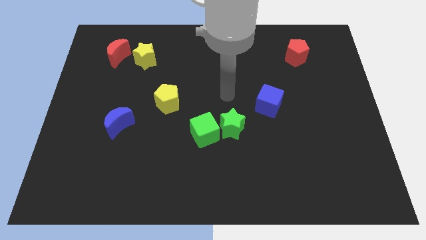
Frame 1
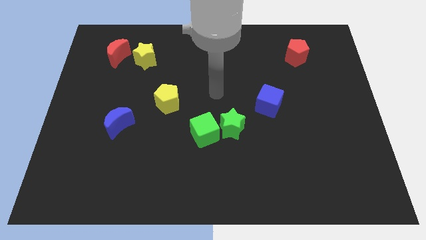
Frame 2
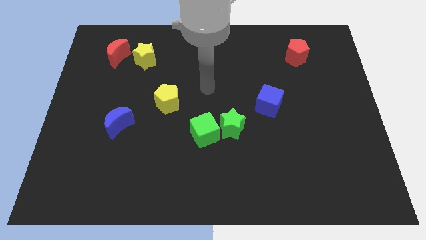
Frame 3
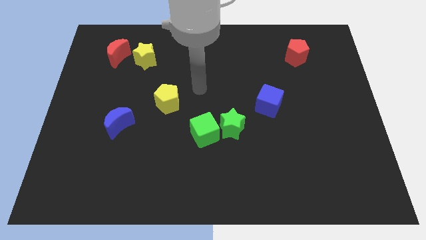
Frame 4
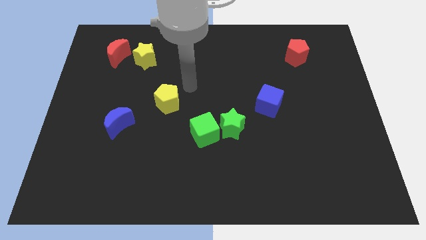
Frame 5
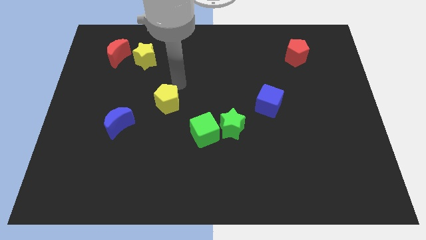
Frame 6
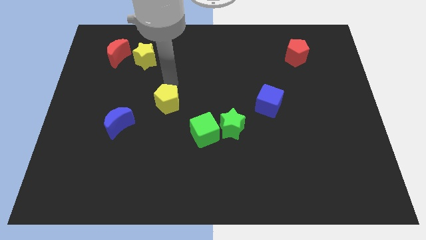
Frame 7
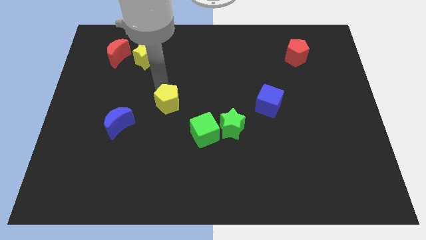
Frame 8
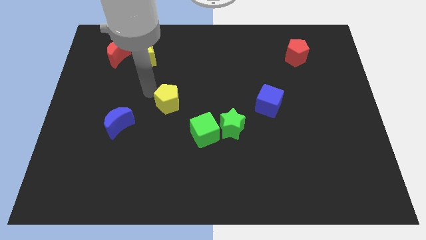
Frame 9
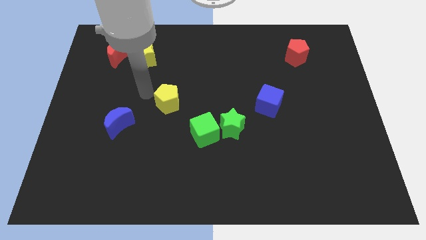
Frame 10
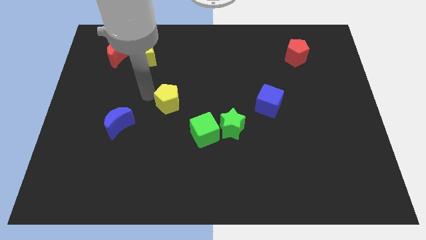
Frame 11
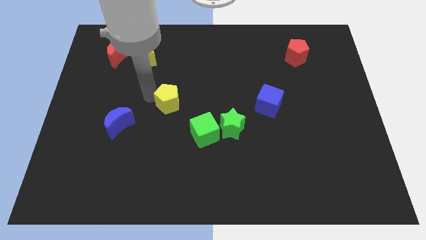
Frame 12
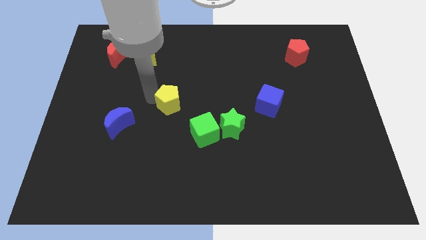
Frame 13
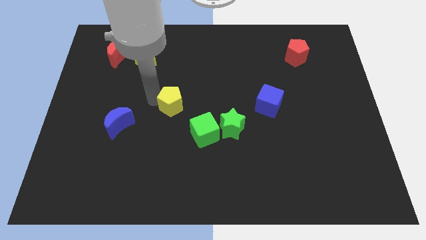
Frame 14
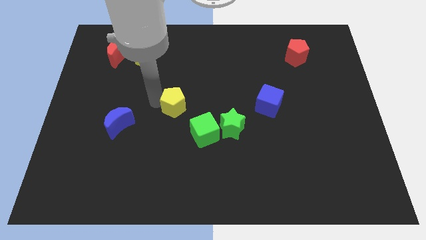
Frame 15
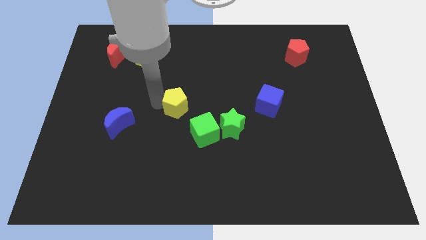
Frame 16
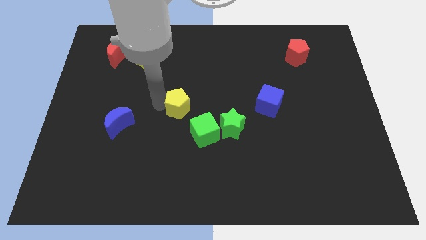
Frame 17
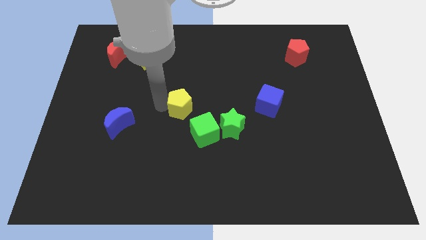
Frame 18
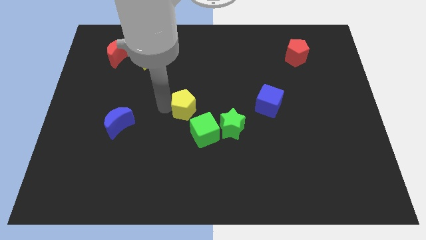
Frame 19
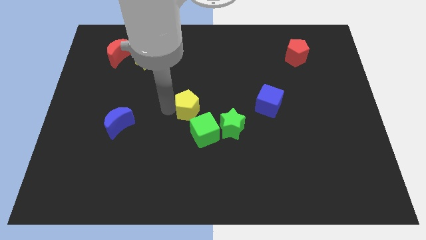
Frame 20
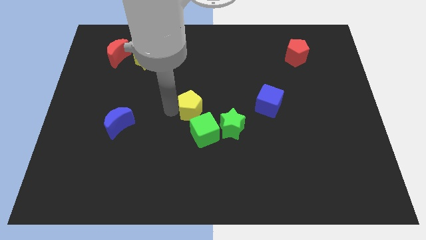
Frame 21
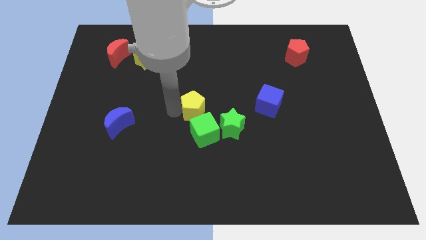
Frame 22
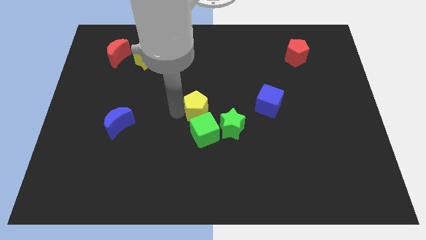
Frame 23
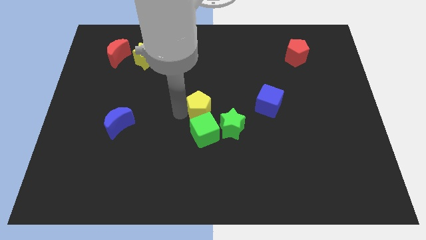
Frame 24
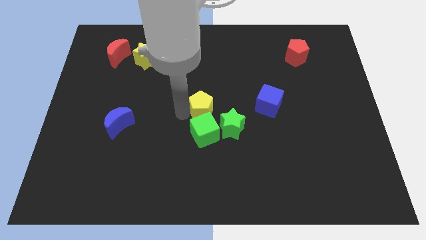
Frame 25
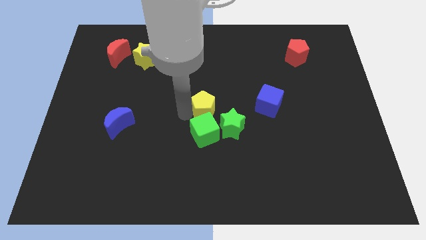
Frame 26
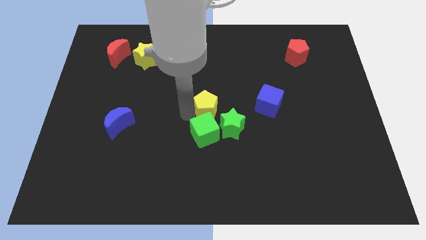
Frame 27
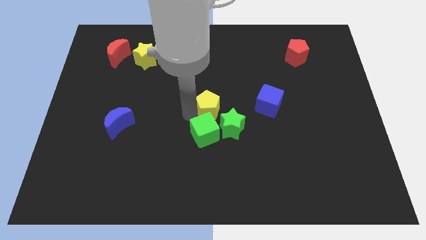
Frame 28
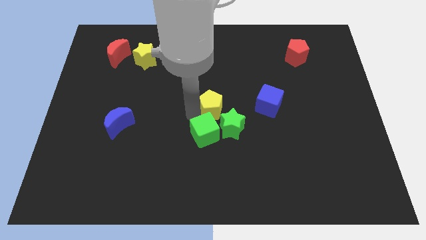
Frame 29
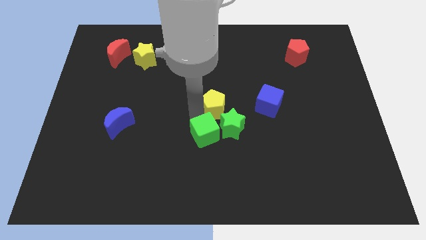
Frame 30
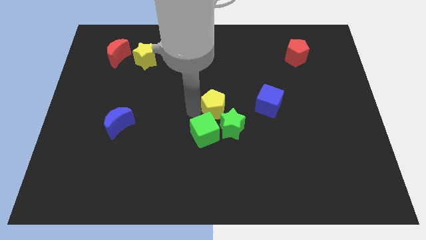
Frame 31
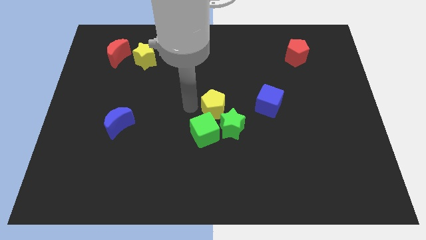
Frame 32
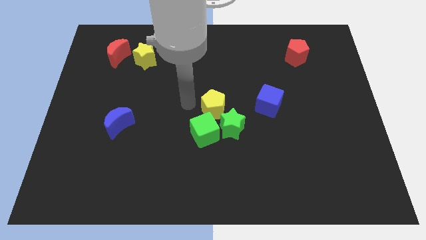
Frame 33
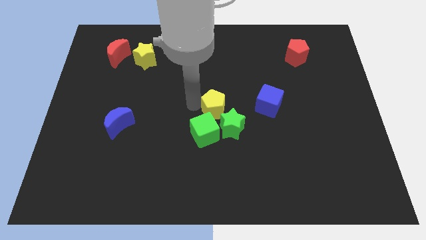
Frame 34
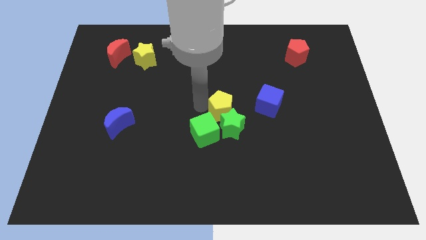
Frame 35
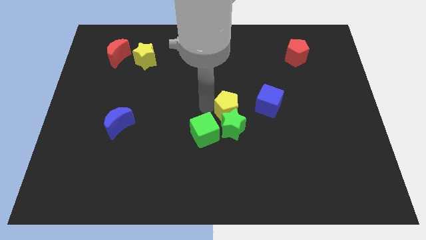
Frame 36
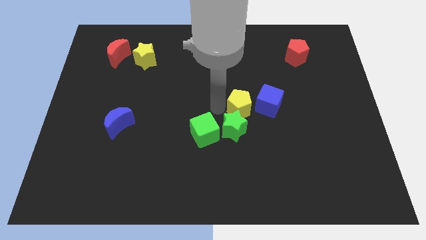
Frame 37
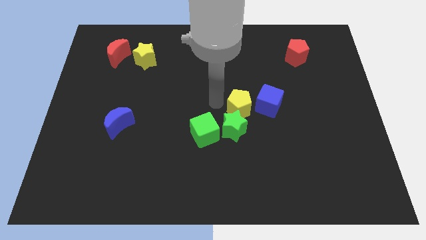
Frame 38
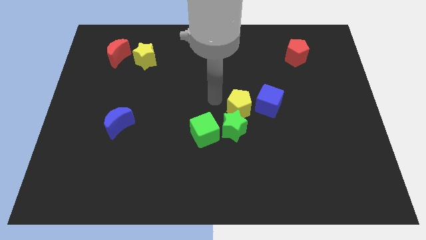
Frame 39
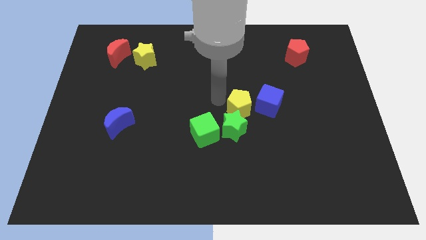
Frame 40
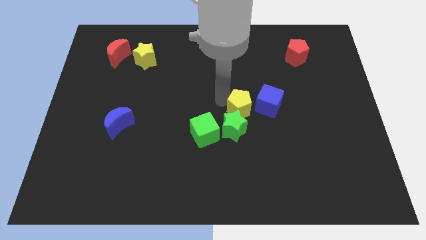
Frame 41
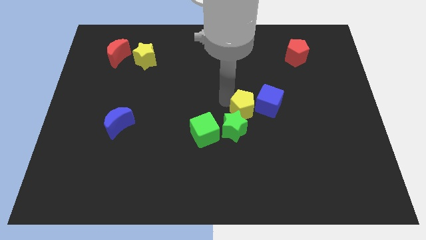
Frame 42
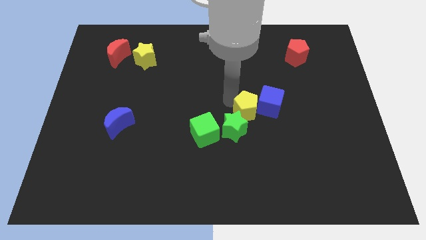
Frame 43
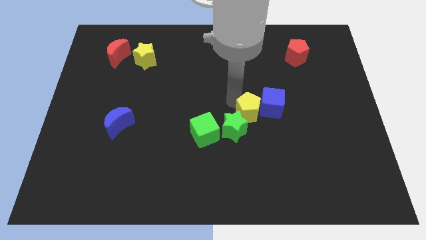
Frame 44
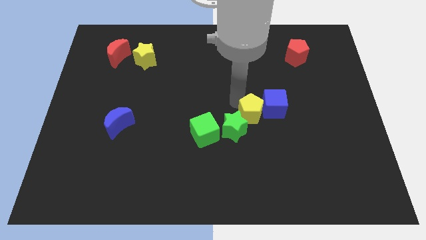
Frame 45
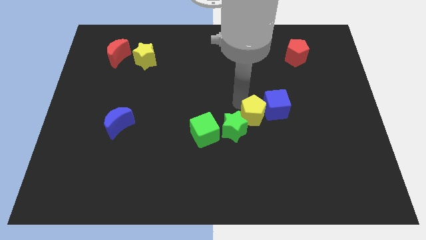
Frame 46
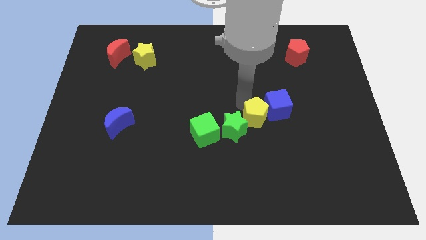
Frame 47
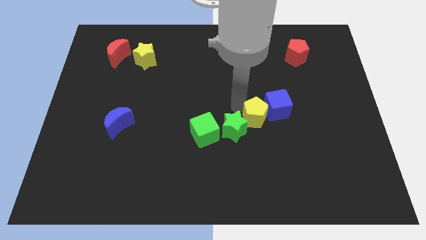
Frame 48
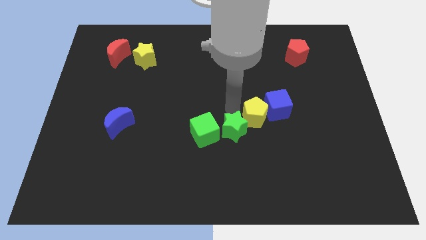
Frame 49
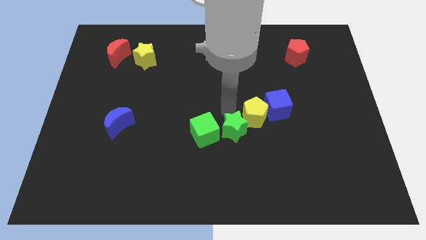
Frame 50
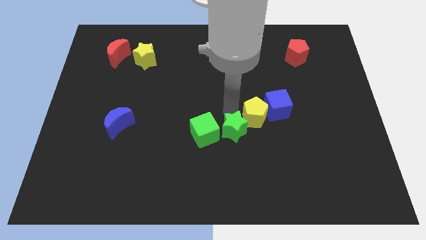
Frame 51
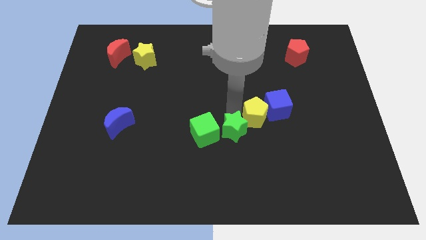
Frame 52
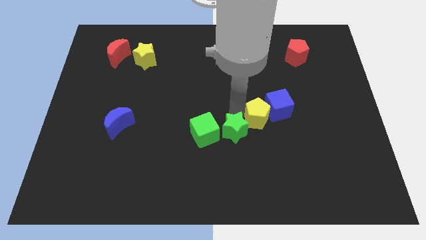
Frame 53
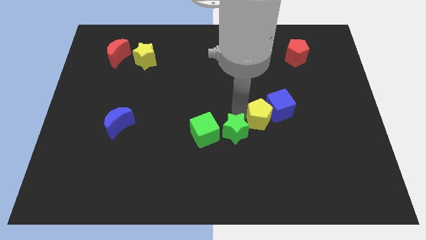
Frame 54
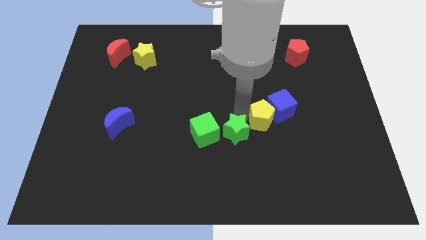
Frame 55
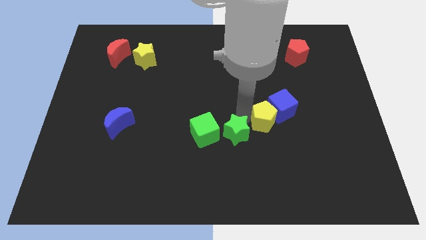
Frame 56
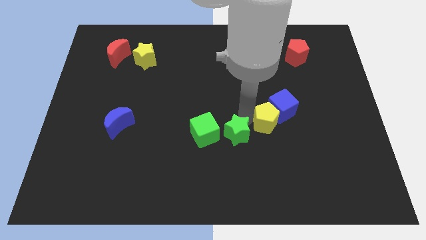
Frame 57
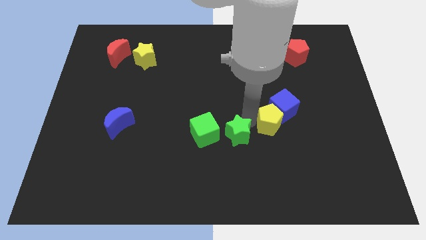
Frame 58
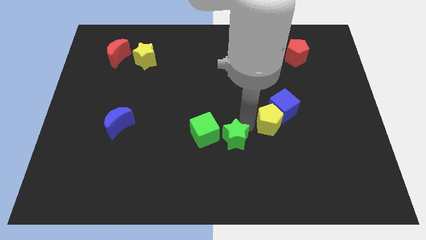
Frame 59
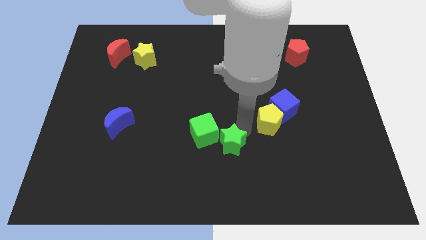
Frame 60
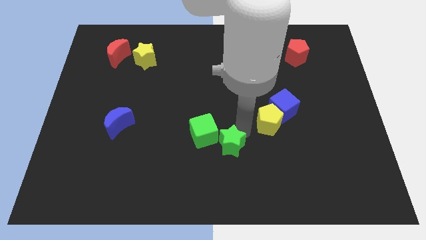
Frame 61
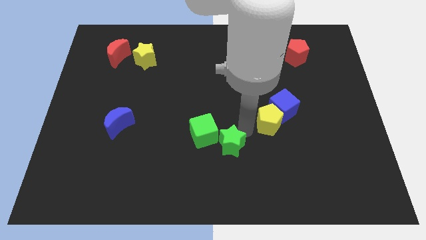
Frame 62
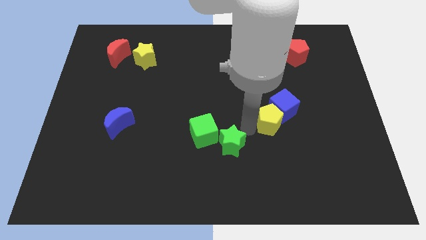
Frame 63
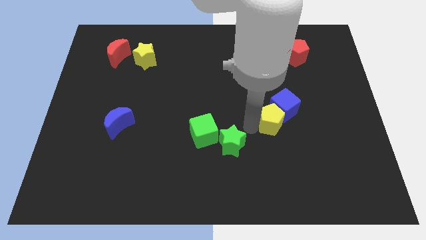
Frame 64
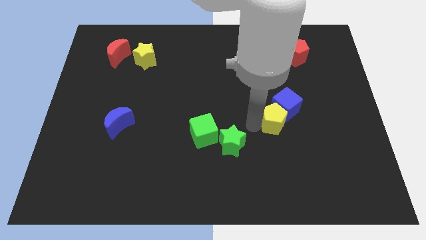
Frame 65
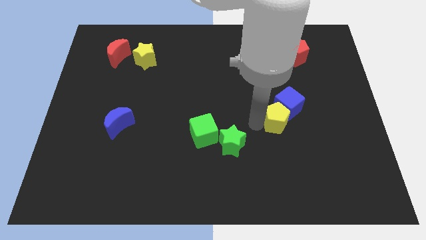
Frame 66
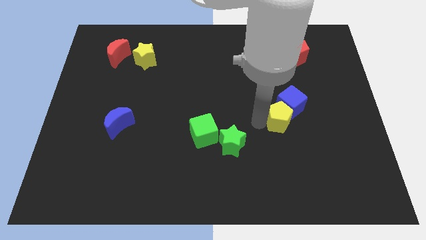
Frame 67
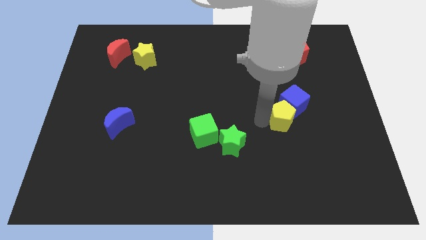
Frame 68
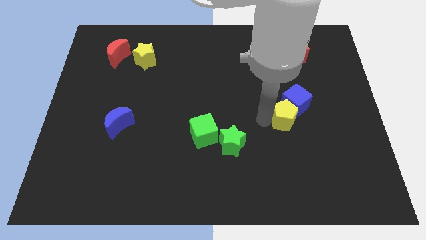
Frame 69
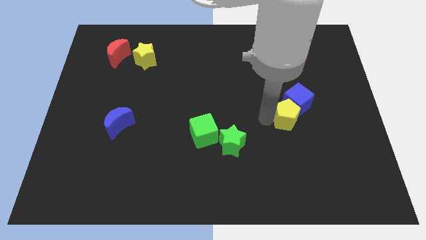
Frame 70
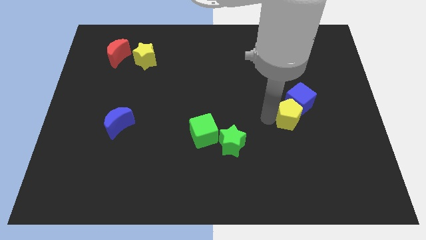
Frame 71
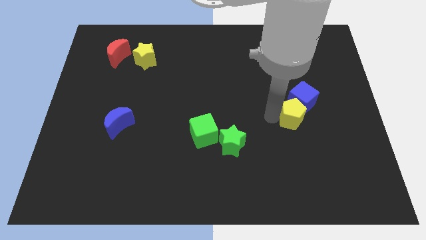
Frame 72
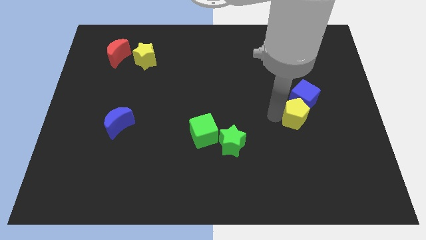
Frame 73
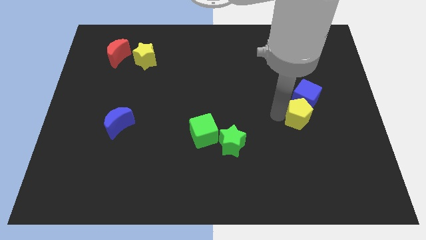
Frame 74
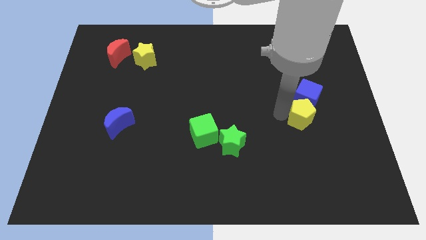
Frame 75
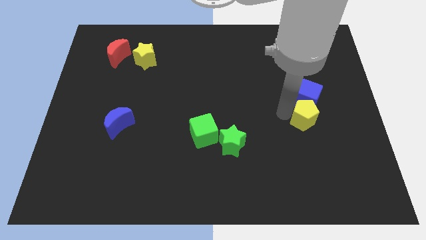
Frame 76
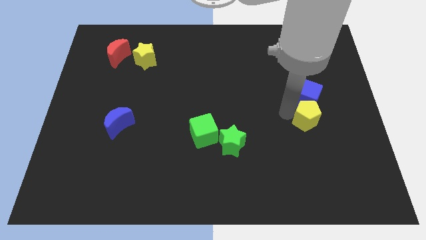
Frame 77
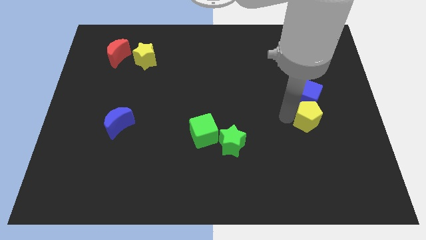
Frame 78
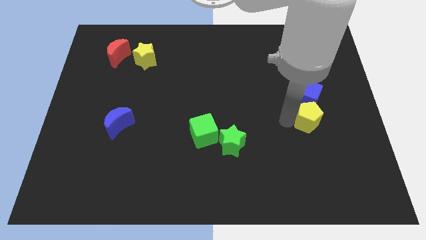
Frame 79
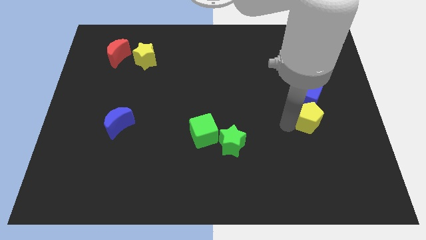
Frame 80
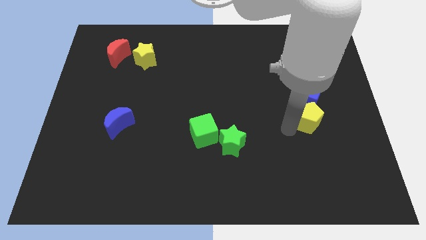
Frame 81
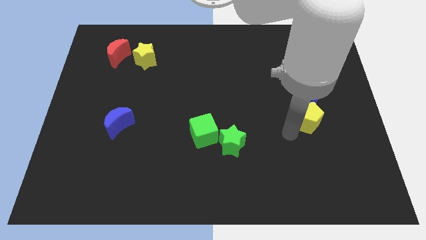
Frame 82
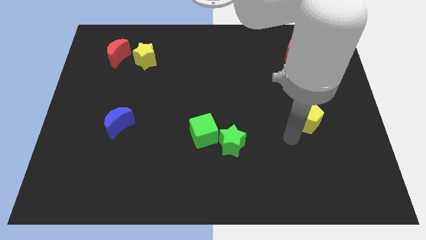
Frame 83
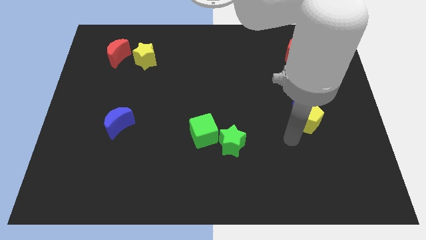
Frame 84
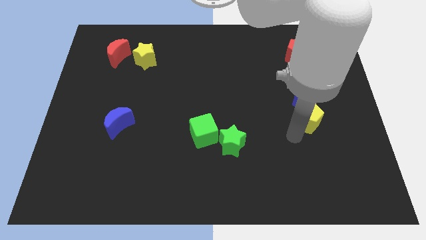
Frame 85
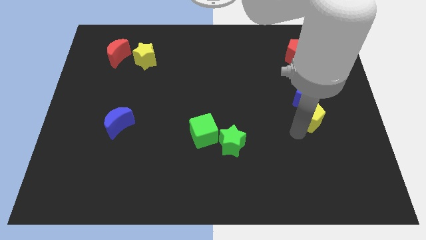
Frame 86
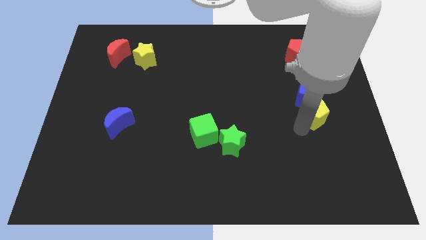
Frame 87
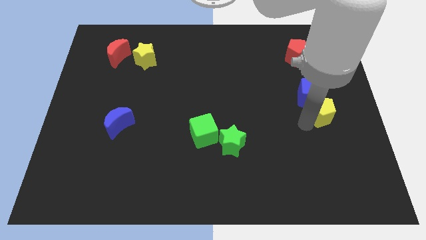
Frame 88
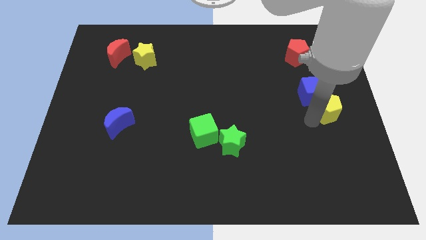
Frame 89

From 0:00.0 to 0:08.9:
push the yellow pentagon to the right side of the board
